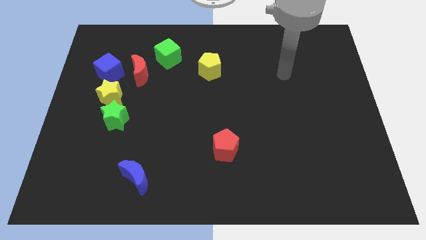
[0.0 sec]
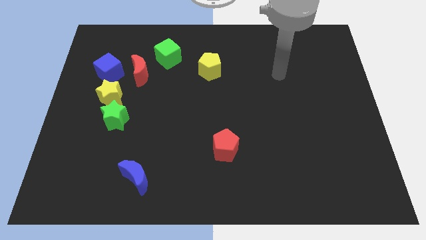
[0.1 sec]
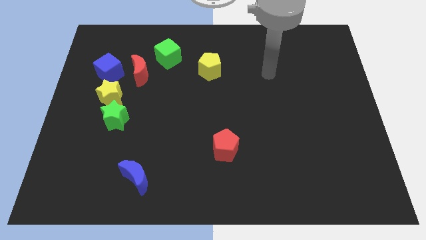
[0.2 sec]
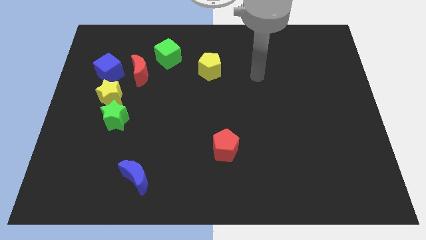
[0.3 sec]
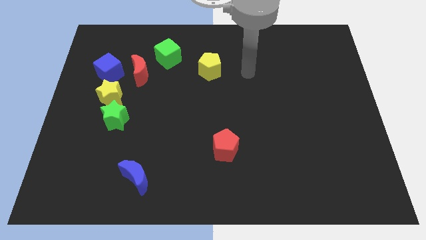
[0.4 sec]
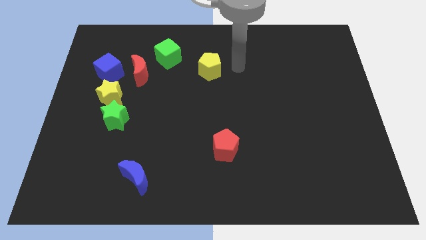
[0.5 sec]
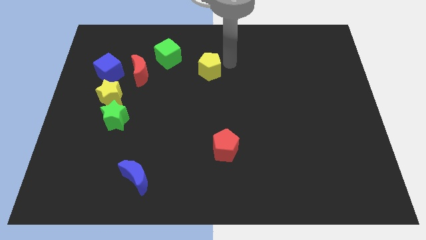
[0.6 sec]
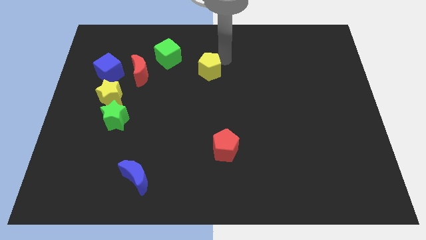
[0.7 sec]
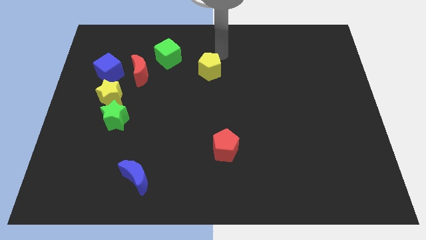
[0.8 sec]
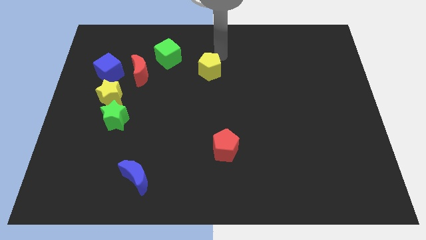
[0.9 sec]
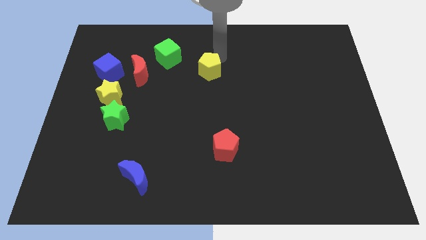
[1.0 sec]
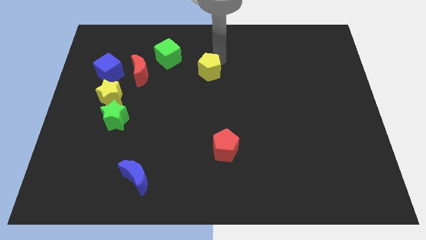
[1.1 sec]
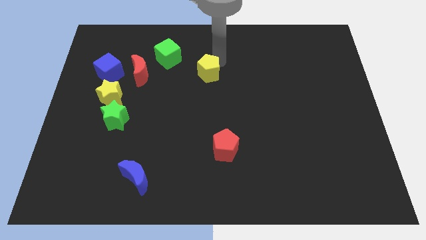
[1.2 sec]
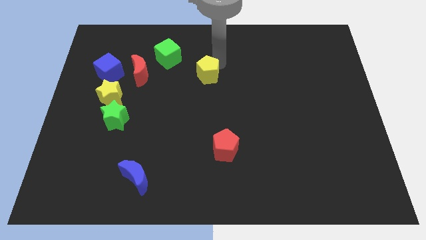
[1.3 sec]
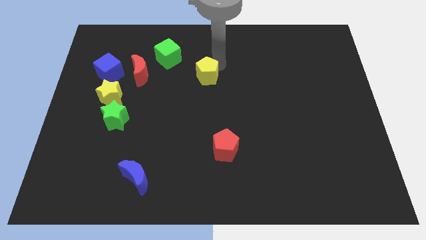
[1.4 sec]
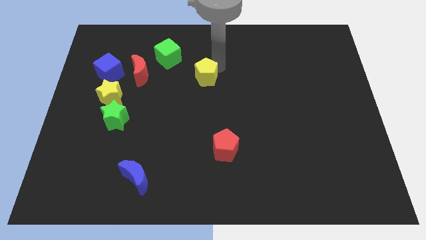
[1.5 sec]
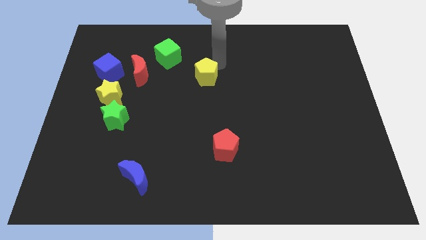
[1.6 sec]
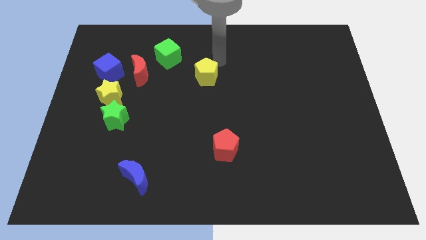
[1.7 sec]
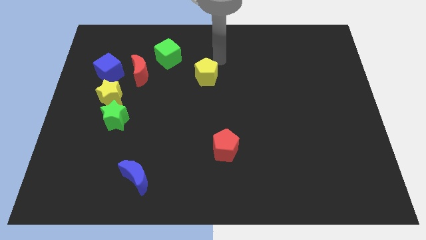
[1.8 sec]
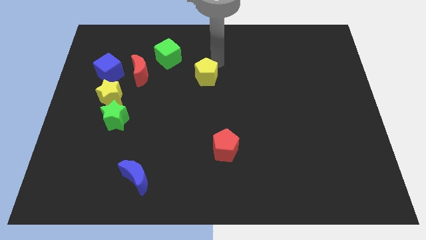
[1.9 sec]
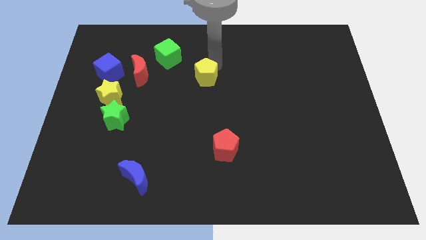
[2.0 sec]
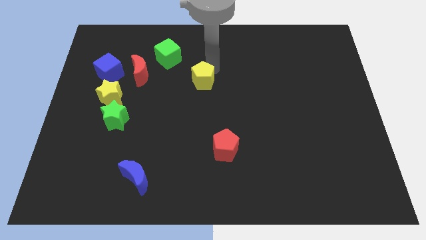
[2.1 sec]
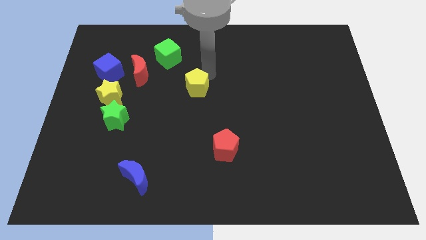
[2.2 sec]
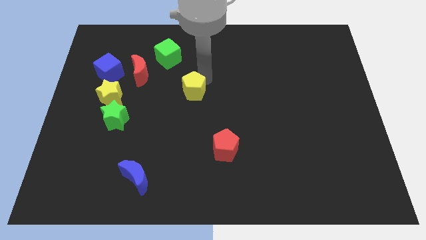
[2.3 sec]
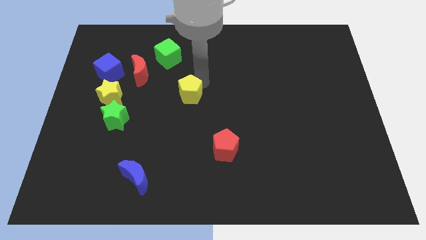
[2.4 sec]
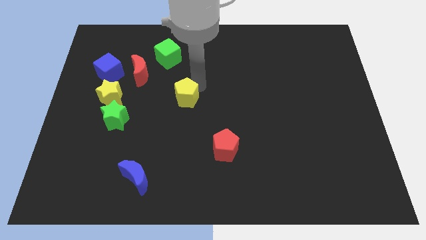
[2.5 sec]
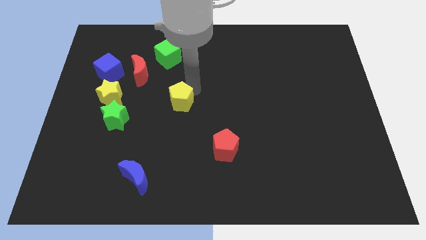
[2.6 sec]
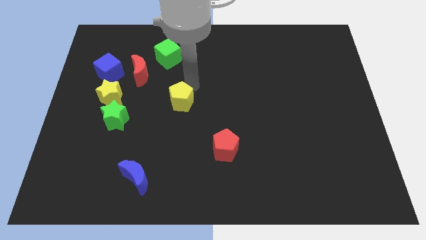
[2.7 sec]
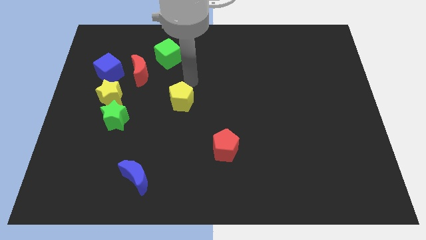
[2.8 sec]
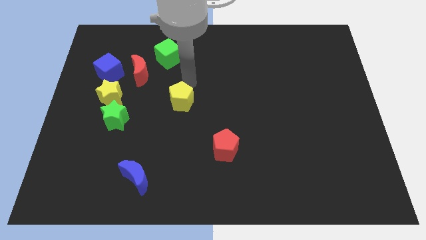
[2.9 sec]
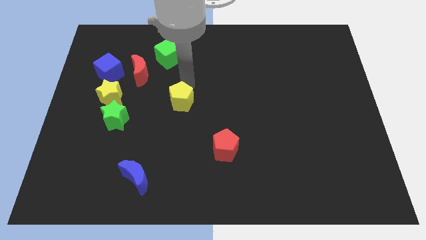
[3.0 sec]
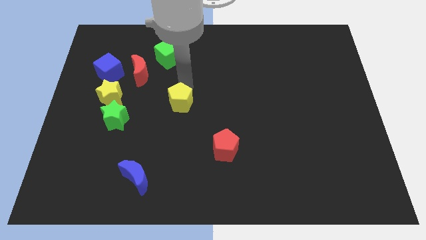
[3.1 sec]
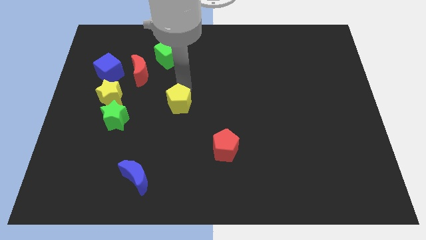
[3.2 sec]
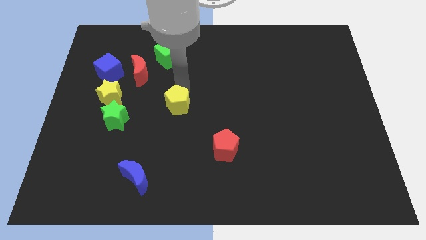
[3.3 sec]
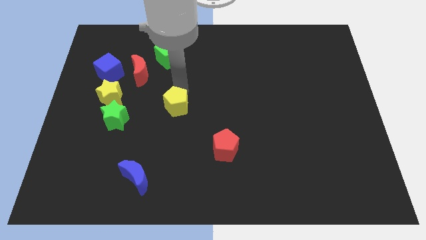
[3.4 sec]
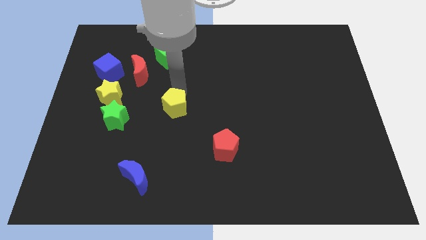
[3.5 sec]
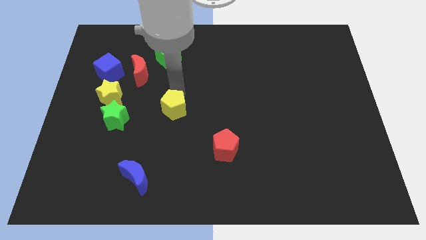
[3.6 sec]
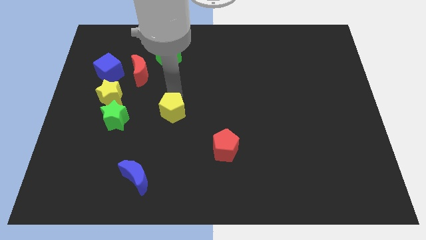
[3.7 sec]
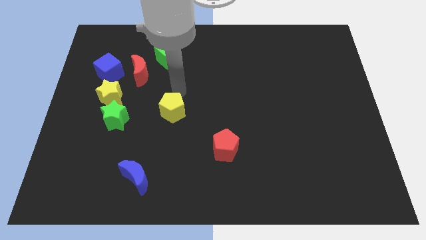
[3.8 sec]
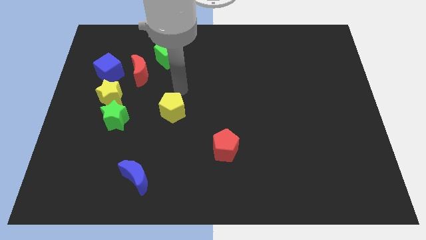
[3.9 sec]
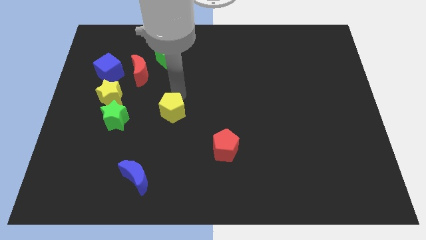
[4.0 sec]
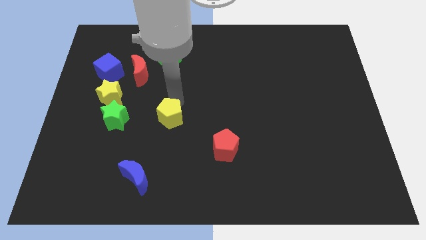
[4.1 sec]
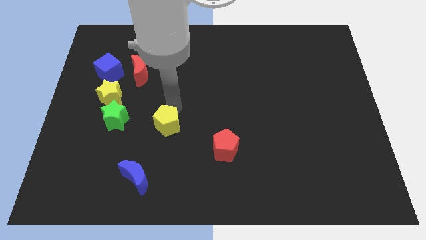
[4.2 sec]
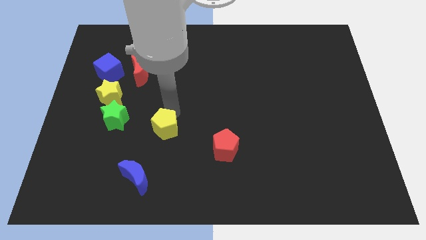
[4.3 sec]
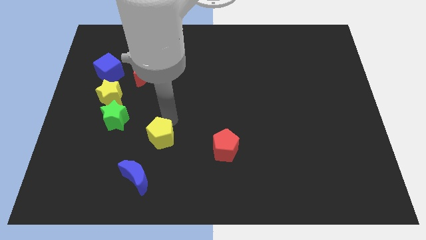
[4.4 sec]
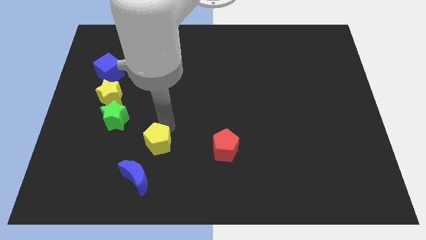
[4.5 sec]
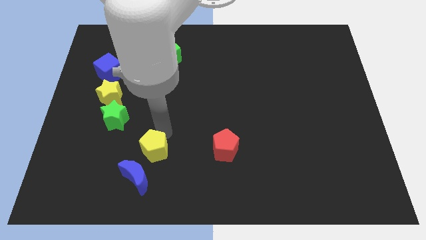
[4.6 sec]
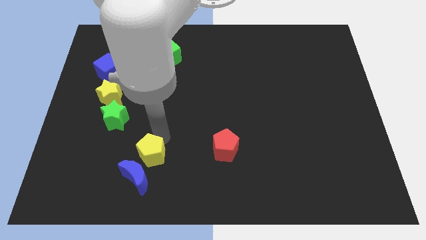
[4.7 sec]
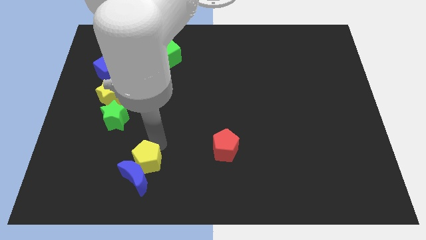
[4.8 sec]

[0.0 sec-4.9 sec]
put the yellow pentagon to the blue moon

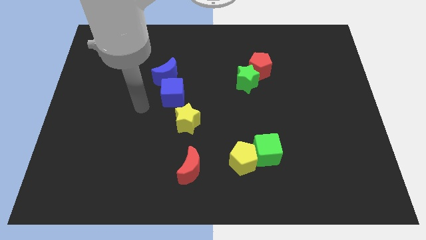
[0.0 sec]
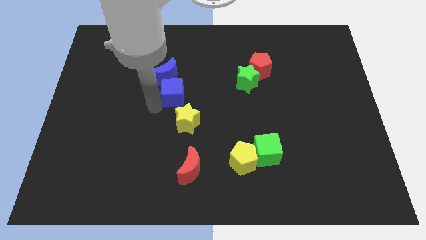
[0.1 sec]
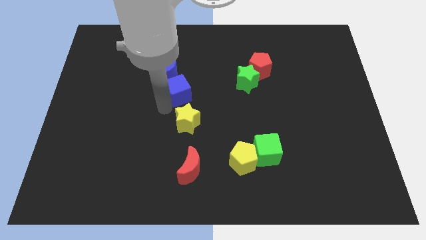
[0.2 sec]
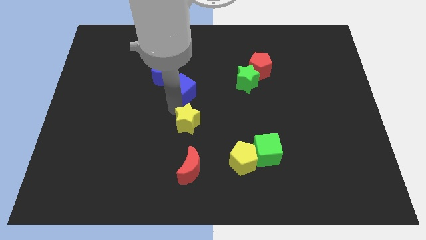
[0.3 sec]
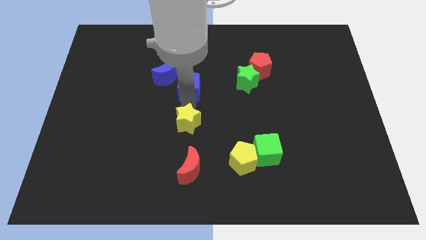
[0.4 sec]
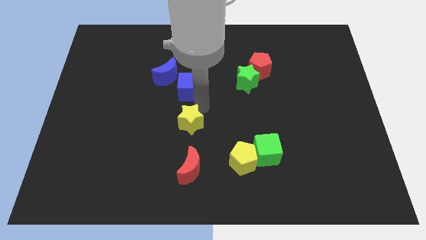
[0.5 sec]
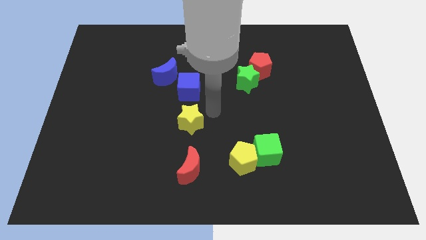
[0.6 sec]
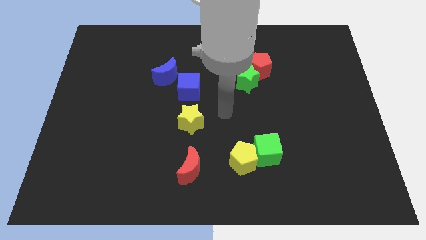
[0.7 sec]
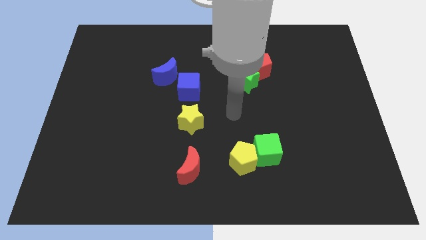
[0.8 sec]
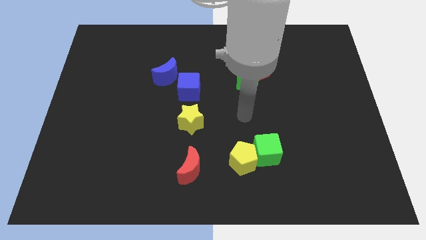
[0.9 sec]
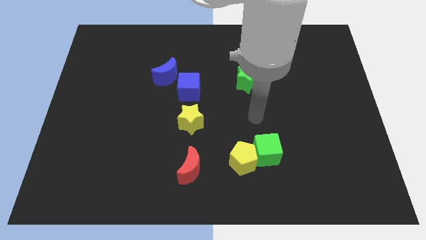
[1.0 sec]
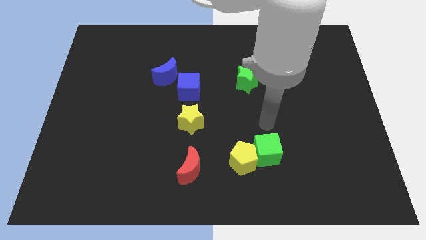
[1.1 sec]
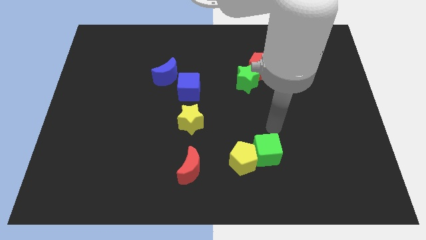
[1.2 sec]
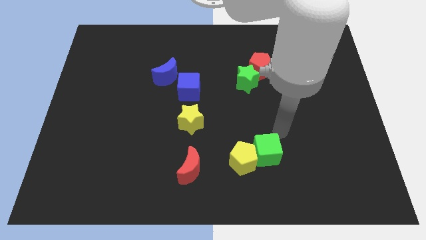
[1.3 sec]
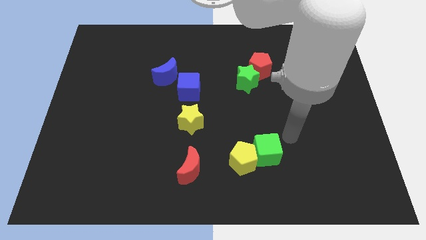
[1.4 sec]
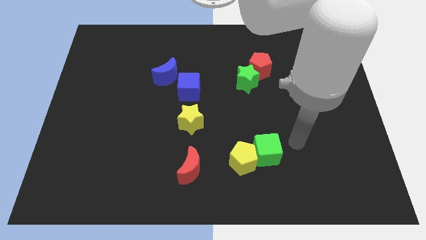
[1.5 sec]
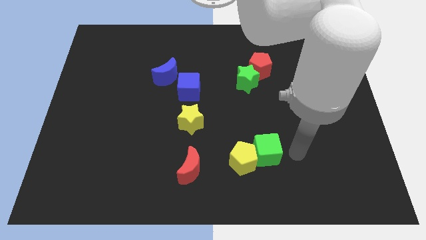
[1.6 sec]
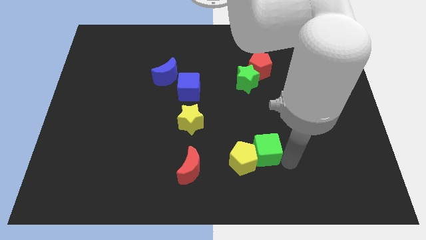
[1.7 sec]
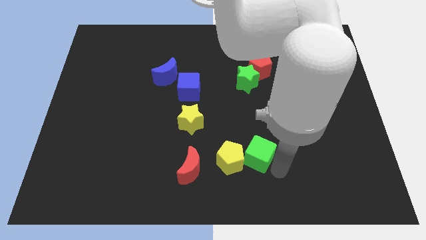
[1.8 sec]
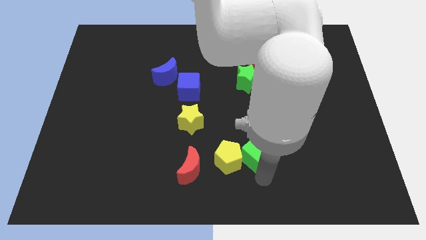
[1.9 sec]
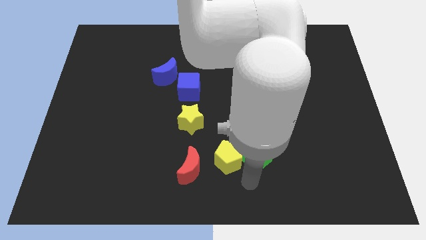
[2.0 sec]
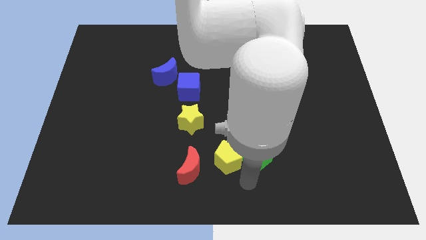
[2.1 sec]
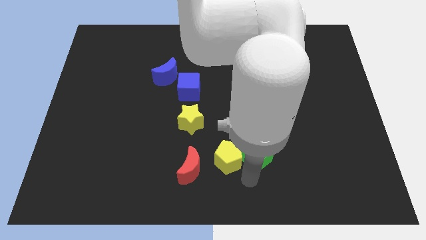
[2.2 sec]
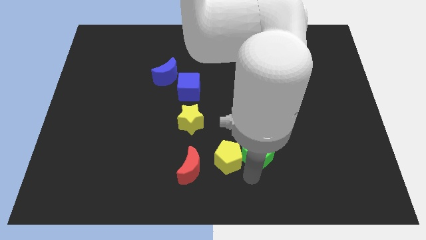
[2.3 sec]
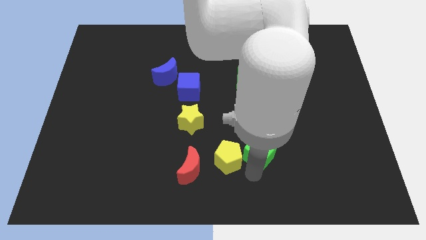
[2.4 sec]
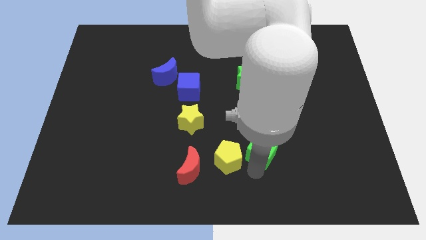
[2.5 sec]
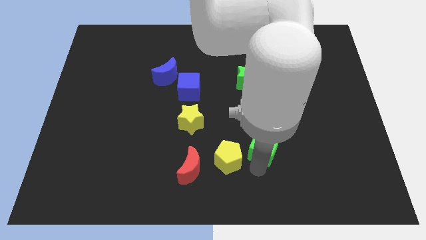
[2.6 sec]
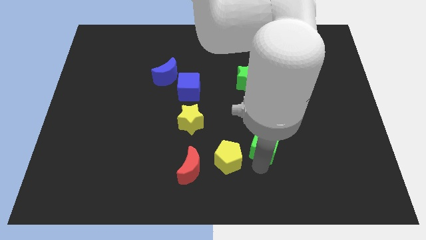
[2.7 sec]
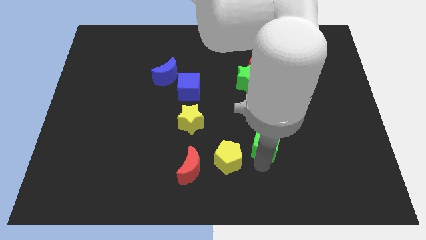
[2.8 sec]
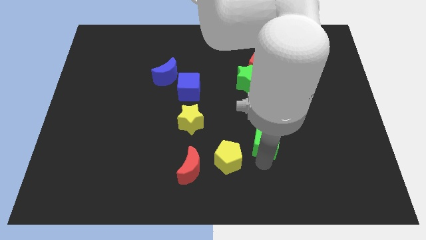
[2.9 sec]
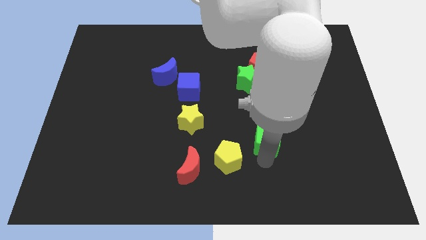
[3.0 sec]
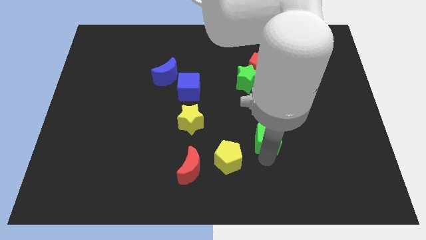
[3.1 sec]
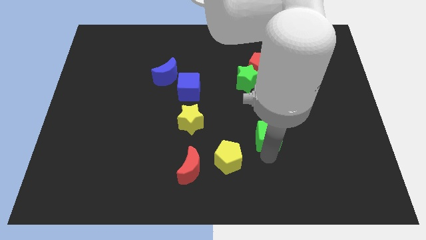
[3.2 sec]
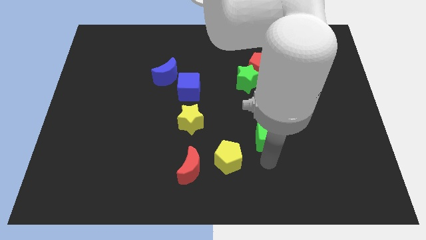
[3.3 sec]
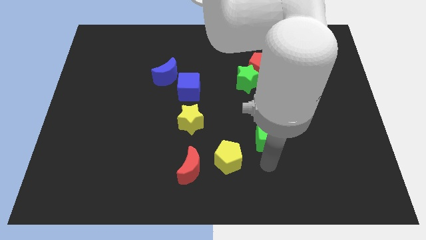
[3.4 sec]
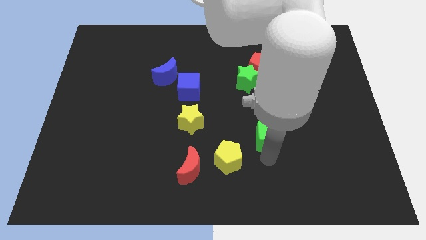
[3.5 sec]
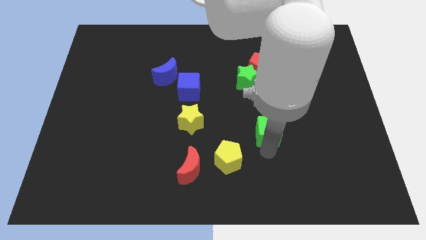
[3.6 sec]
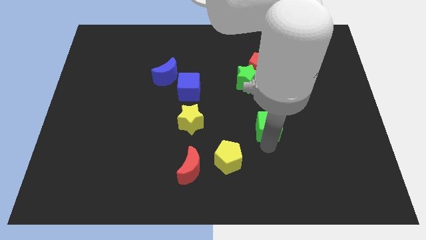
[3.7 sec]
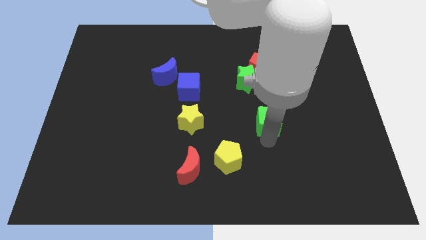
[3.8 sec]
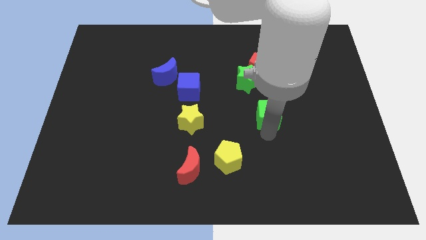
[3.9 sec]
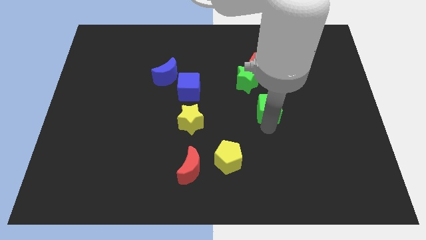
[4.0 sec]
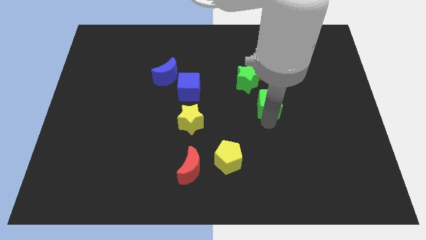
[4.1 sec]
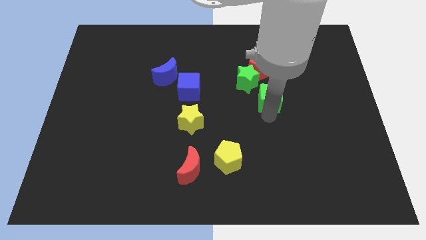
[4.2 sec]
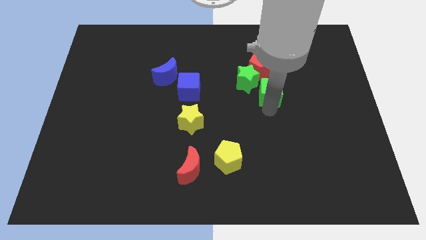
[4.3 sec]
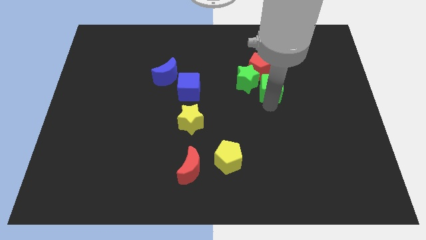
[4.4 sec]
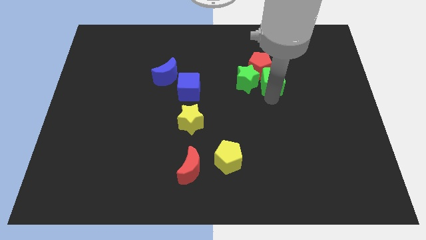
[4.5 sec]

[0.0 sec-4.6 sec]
put the green cube towards the red pentagon
